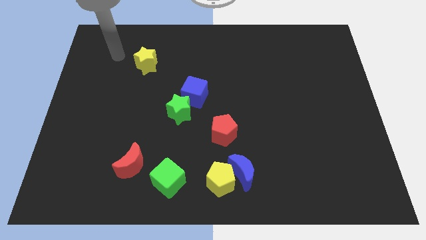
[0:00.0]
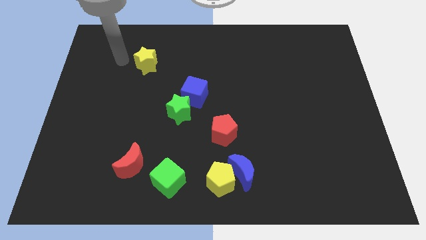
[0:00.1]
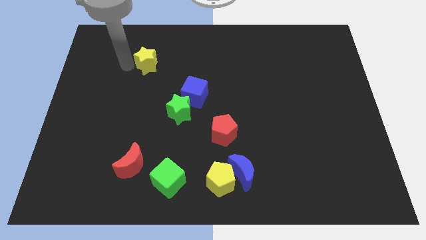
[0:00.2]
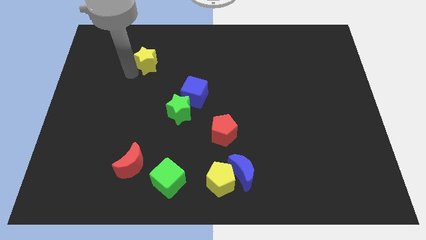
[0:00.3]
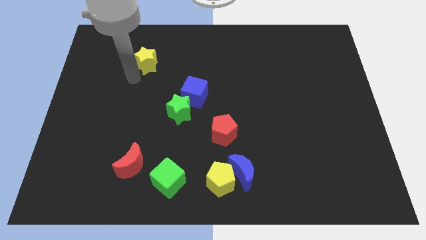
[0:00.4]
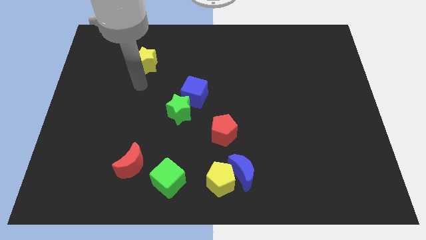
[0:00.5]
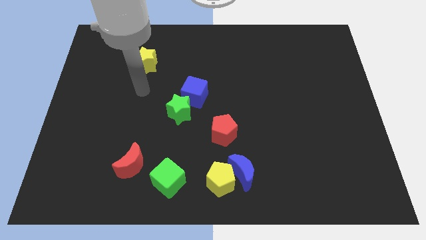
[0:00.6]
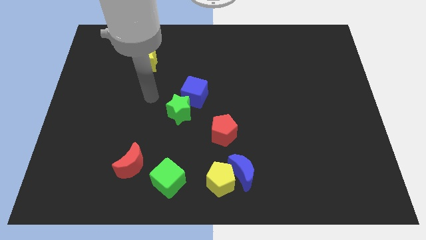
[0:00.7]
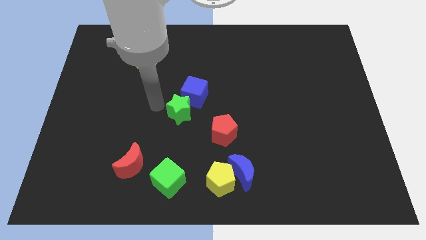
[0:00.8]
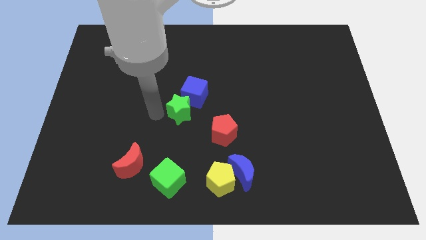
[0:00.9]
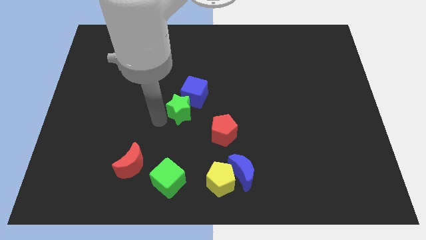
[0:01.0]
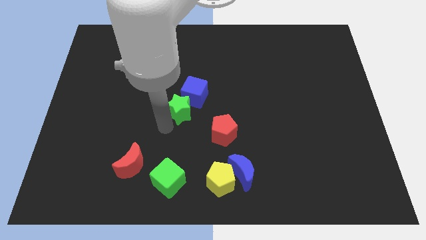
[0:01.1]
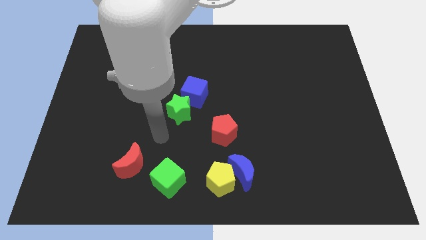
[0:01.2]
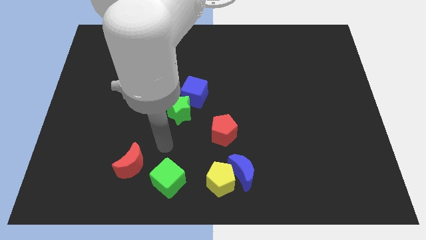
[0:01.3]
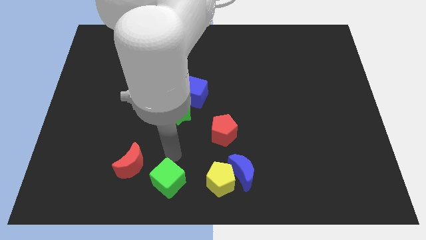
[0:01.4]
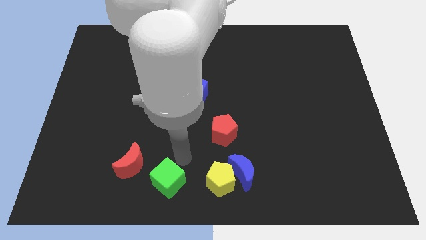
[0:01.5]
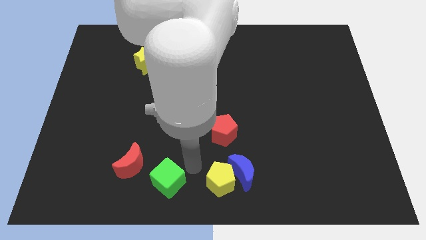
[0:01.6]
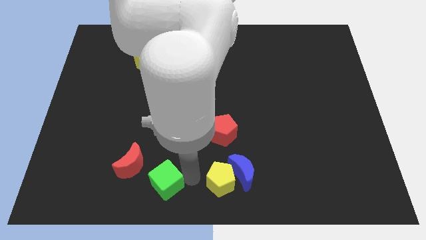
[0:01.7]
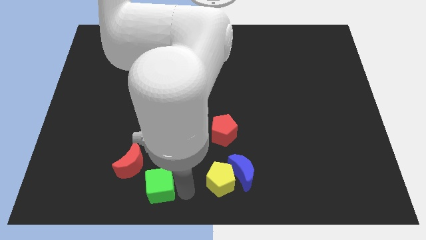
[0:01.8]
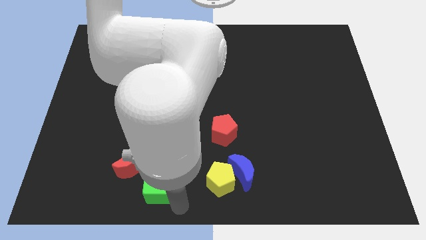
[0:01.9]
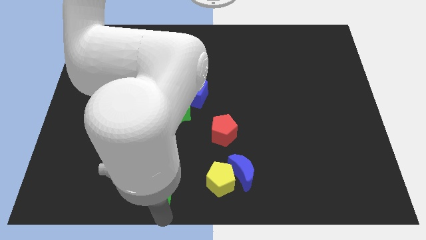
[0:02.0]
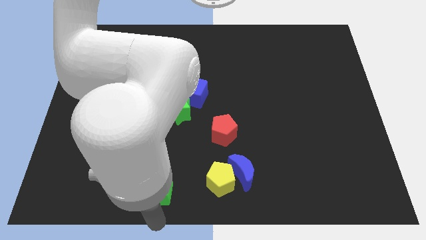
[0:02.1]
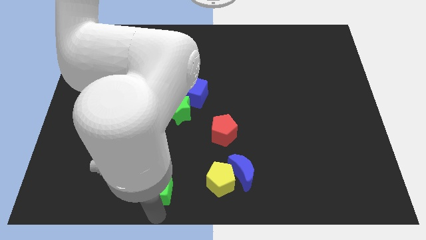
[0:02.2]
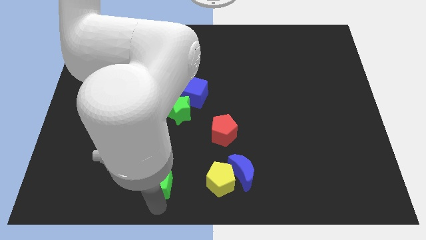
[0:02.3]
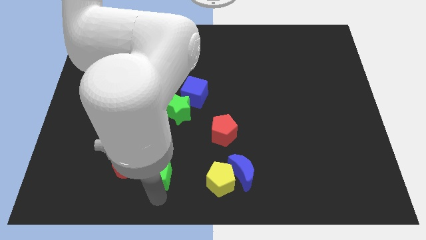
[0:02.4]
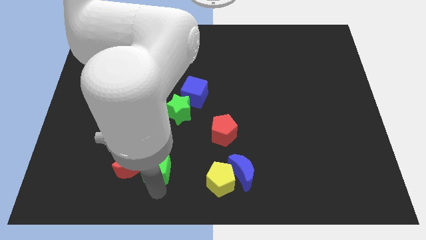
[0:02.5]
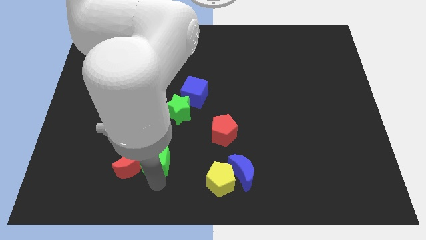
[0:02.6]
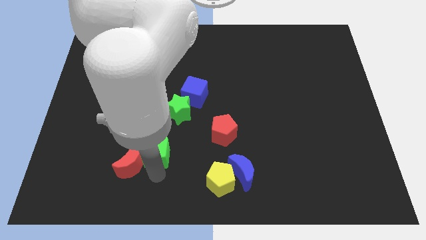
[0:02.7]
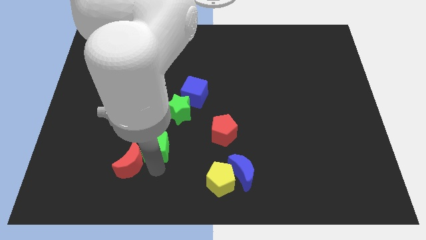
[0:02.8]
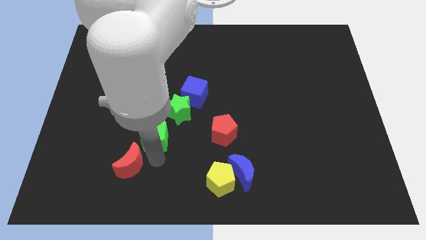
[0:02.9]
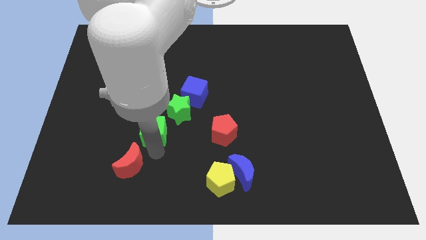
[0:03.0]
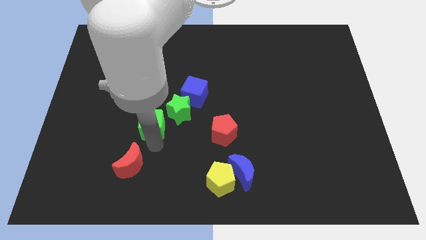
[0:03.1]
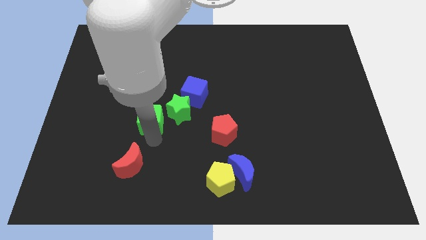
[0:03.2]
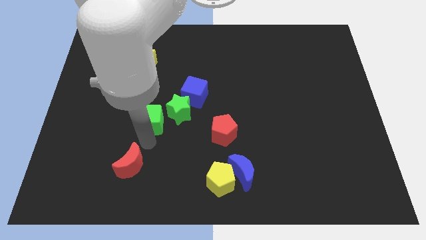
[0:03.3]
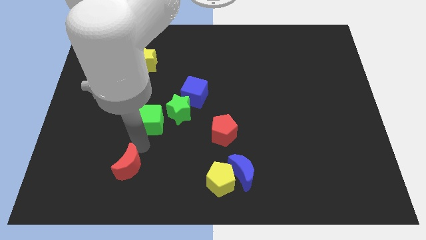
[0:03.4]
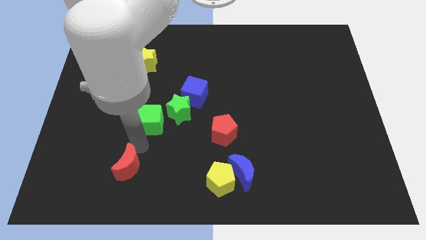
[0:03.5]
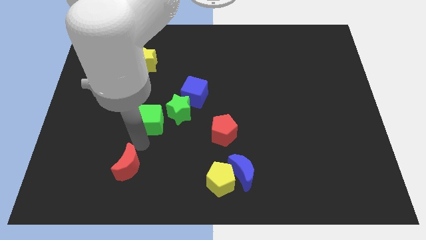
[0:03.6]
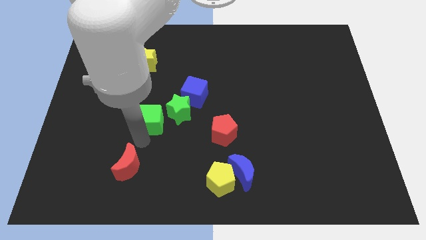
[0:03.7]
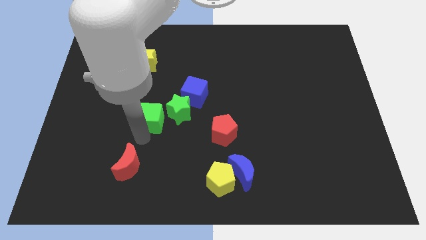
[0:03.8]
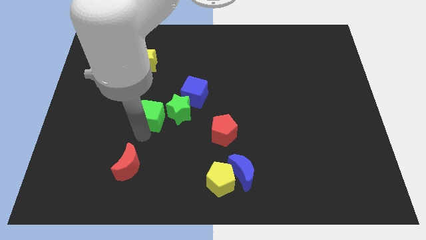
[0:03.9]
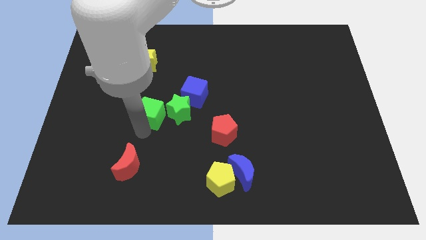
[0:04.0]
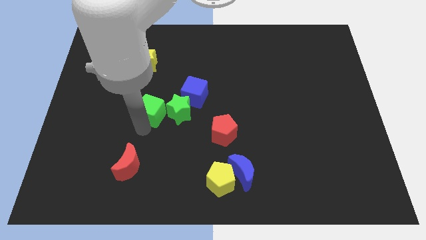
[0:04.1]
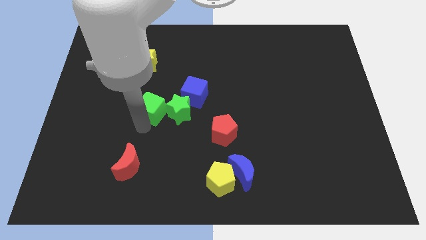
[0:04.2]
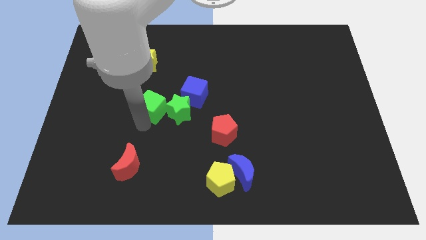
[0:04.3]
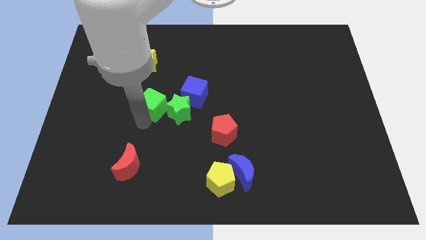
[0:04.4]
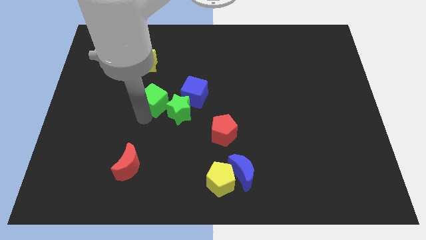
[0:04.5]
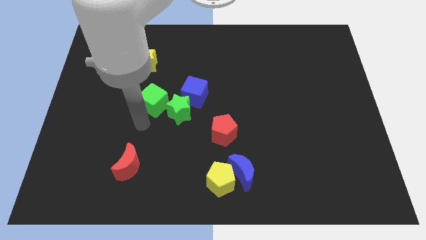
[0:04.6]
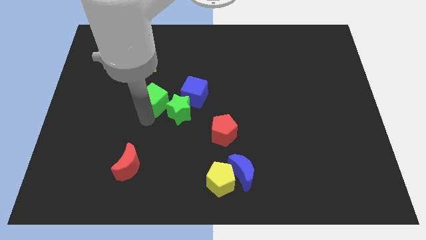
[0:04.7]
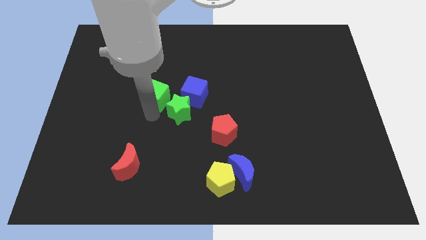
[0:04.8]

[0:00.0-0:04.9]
slide the green cube up

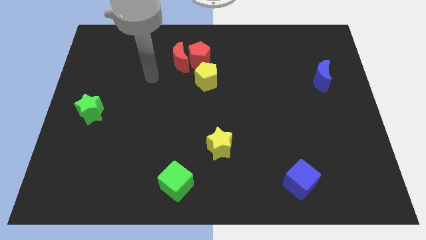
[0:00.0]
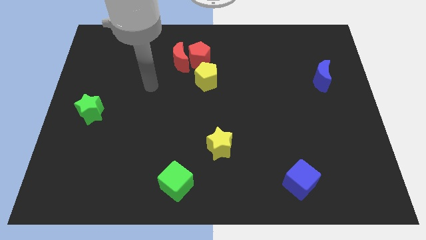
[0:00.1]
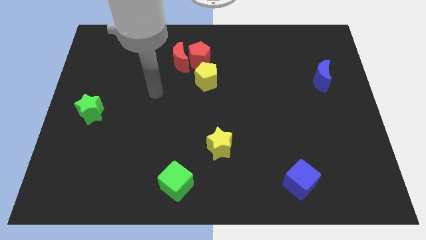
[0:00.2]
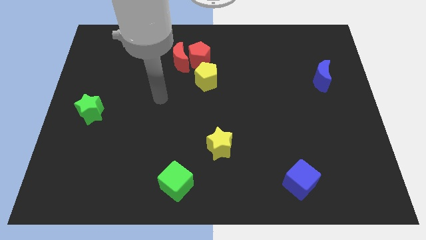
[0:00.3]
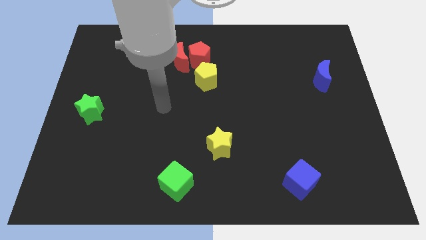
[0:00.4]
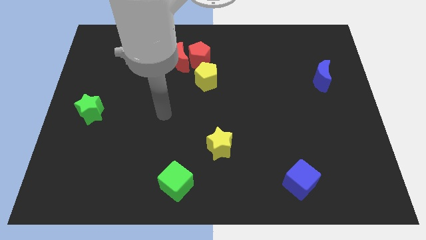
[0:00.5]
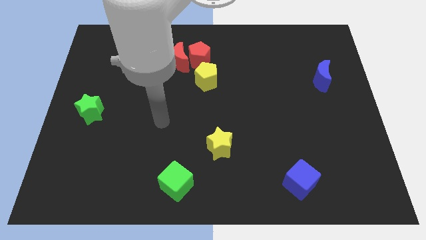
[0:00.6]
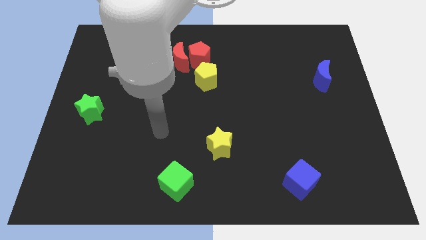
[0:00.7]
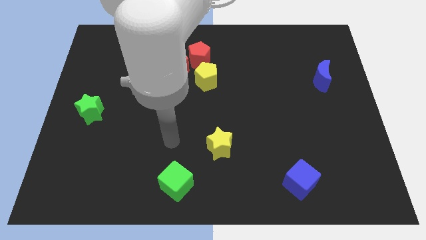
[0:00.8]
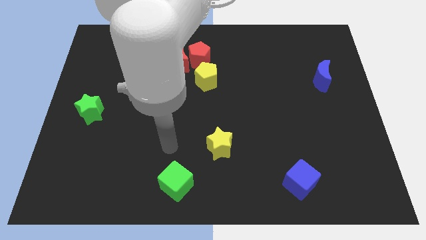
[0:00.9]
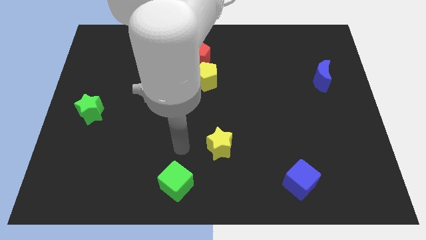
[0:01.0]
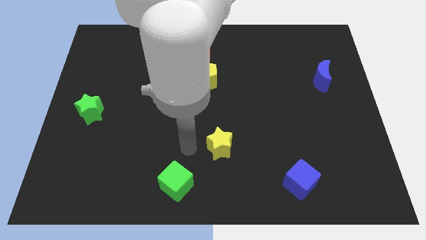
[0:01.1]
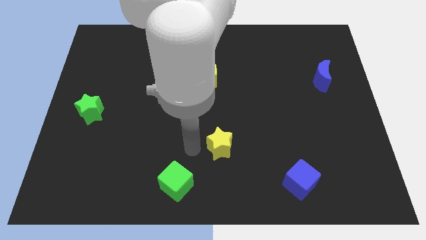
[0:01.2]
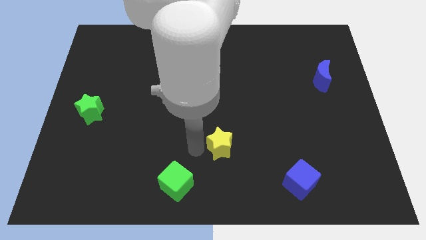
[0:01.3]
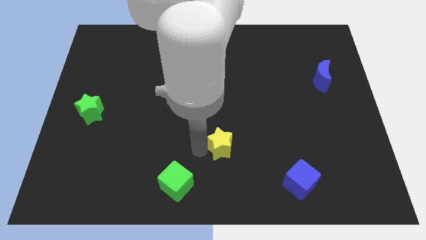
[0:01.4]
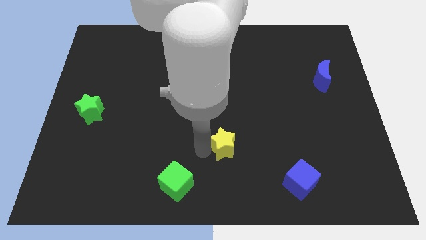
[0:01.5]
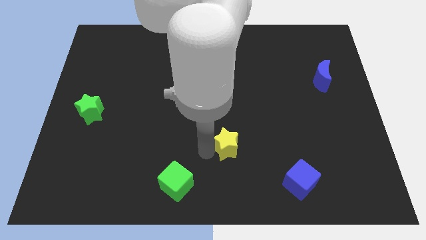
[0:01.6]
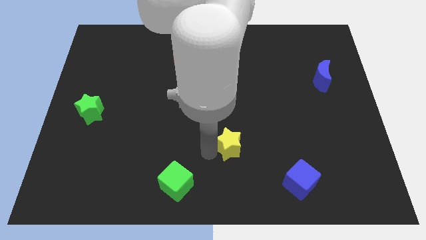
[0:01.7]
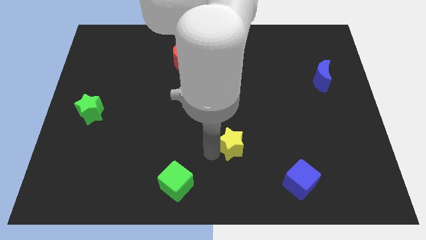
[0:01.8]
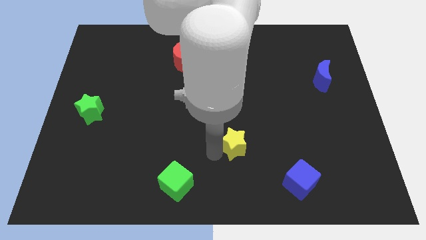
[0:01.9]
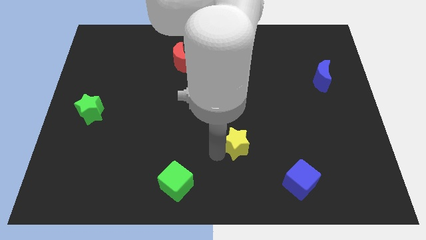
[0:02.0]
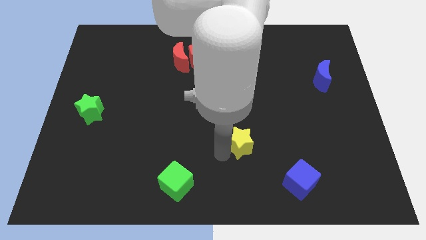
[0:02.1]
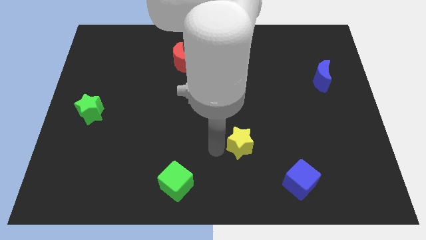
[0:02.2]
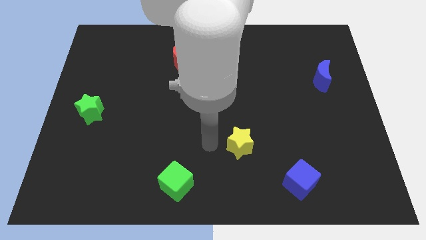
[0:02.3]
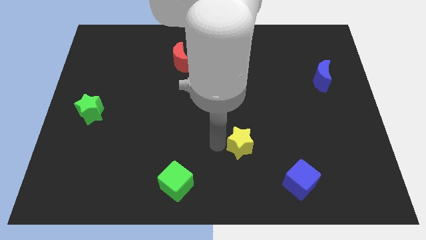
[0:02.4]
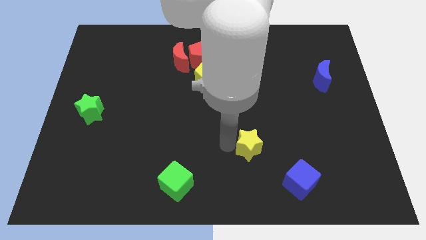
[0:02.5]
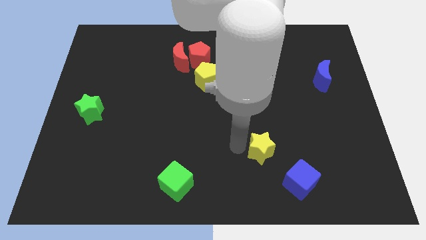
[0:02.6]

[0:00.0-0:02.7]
slide the yellow star to the right slightly
